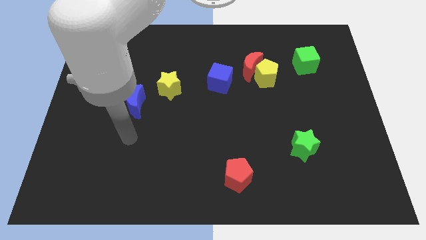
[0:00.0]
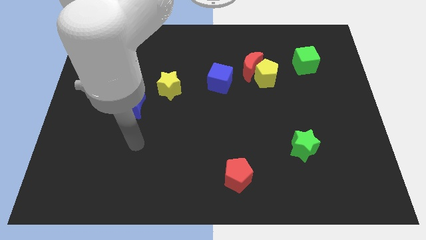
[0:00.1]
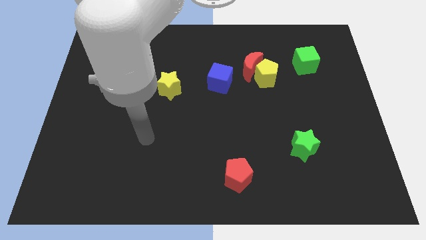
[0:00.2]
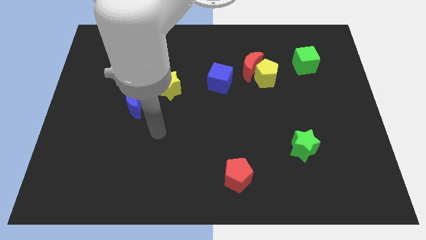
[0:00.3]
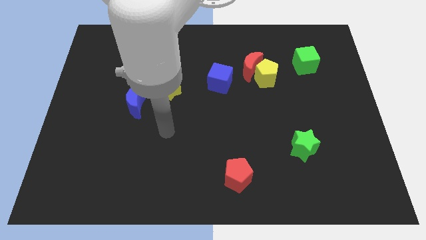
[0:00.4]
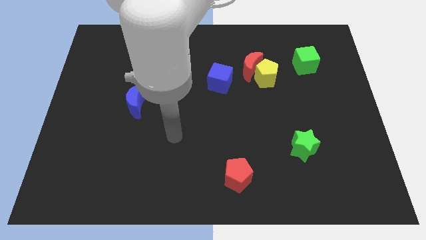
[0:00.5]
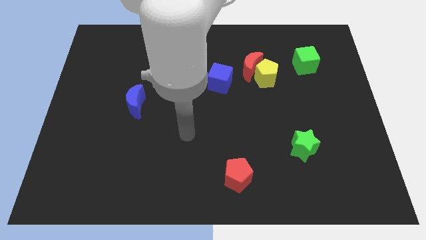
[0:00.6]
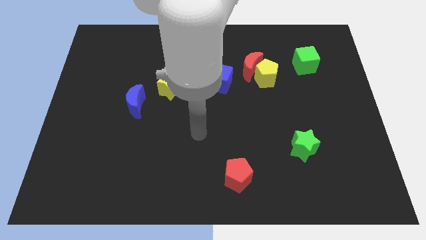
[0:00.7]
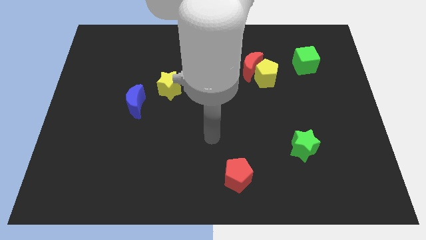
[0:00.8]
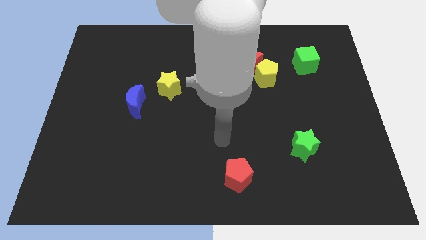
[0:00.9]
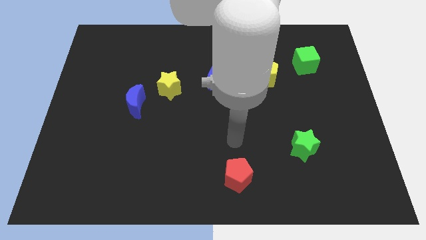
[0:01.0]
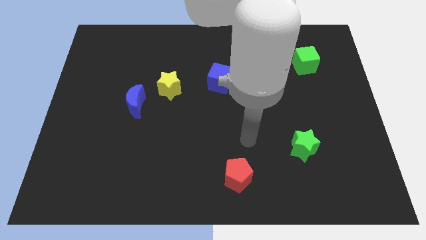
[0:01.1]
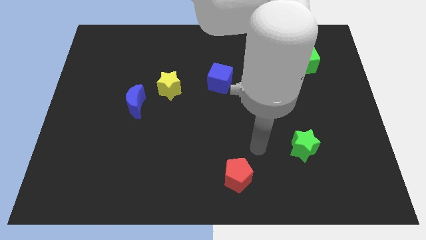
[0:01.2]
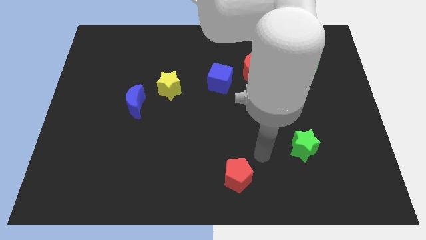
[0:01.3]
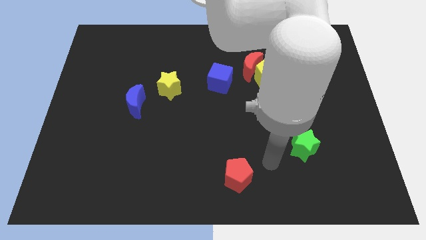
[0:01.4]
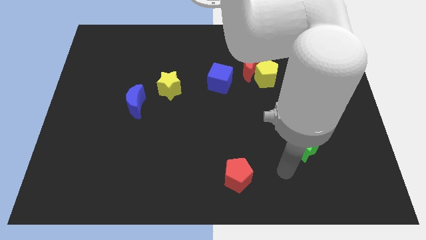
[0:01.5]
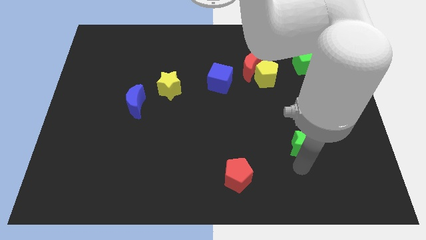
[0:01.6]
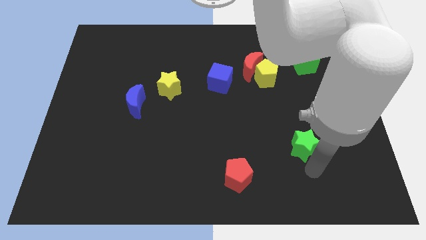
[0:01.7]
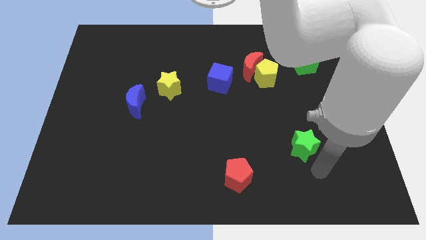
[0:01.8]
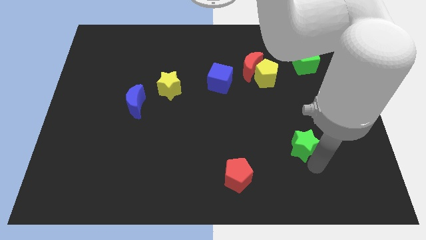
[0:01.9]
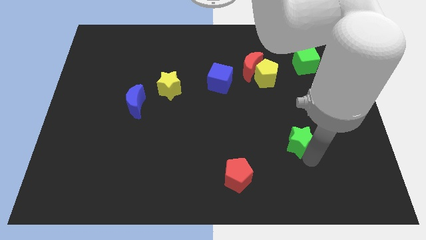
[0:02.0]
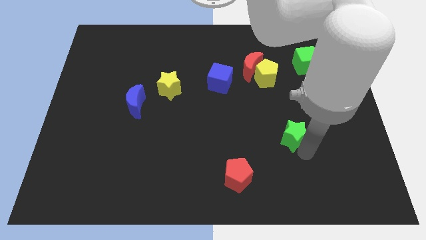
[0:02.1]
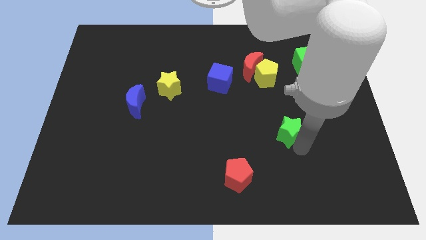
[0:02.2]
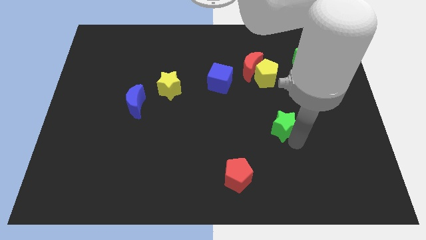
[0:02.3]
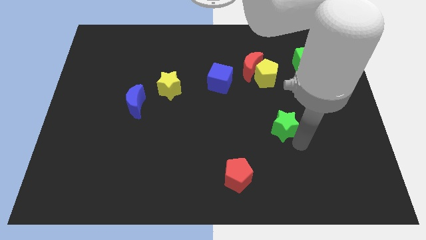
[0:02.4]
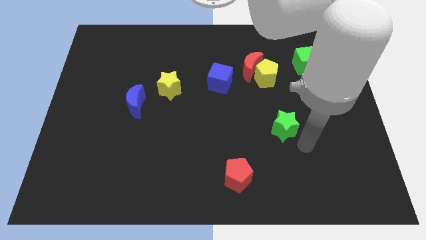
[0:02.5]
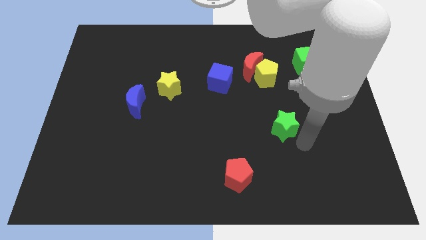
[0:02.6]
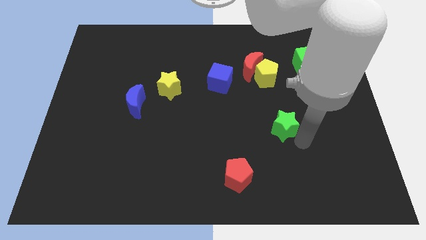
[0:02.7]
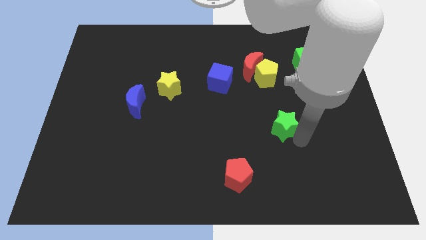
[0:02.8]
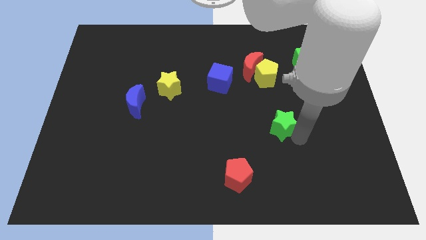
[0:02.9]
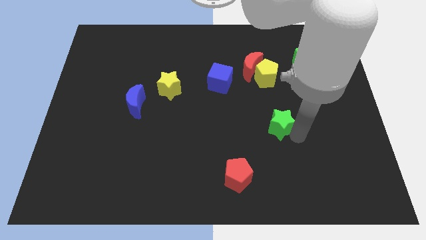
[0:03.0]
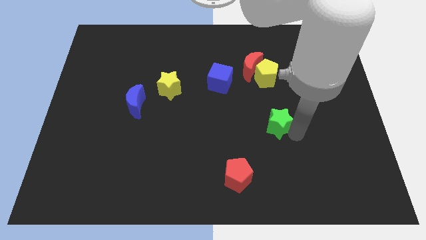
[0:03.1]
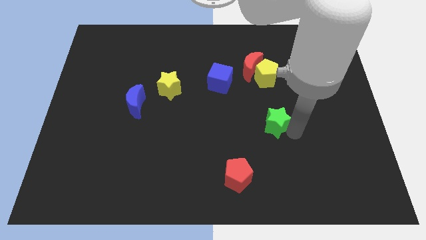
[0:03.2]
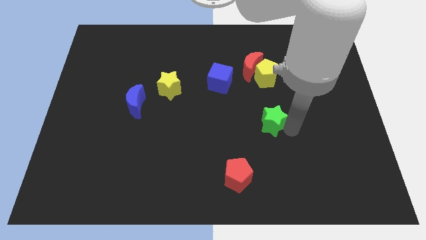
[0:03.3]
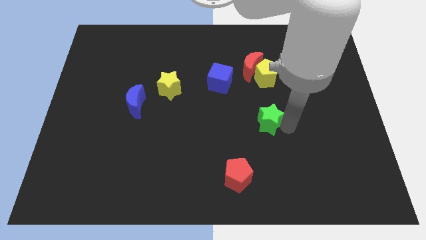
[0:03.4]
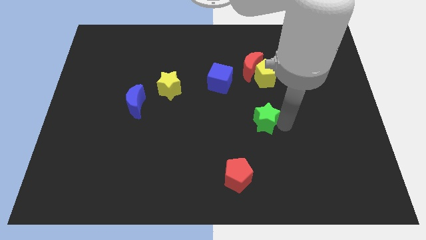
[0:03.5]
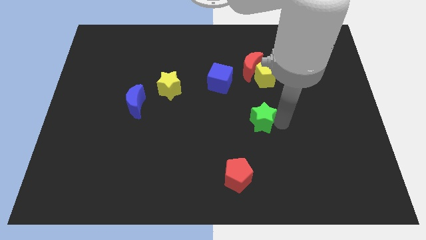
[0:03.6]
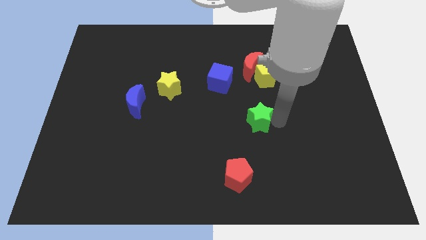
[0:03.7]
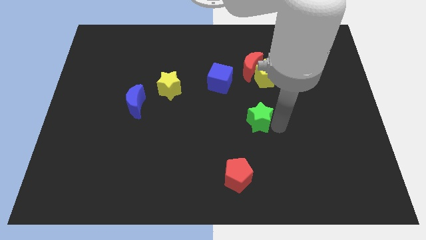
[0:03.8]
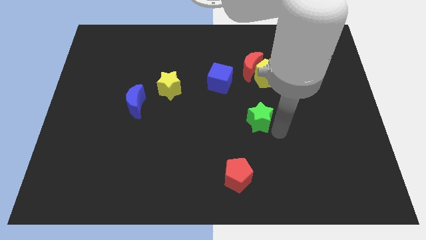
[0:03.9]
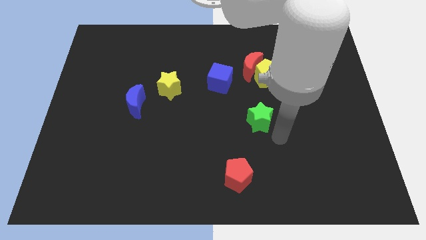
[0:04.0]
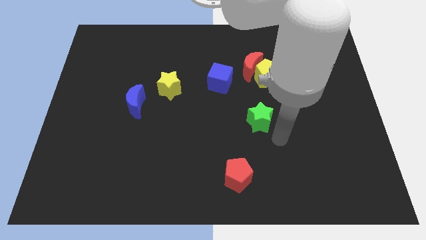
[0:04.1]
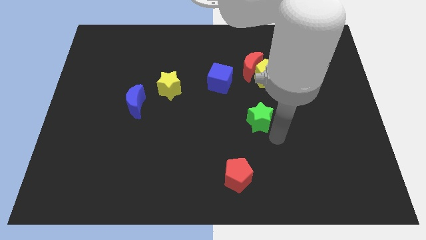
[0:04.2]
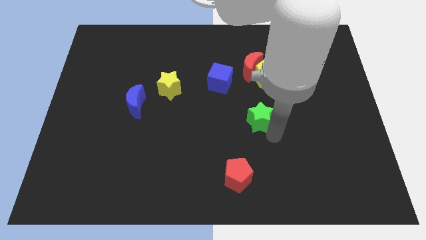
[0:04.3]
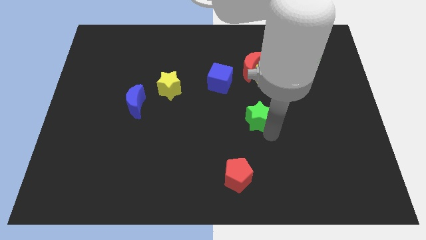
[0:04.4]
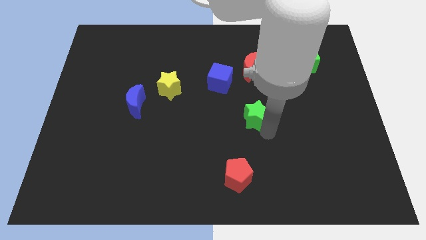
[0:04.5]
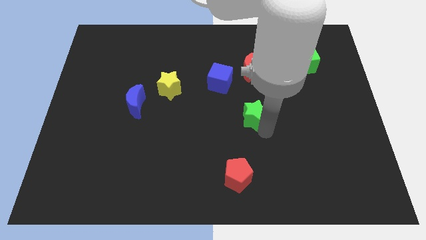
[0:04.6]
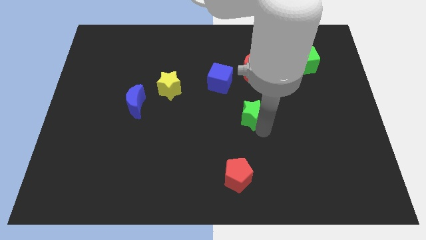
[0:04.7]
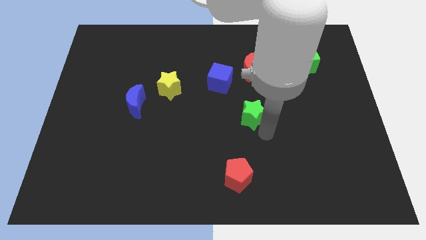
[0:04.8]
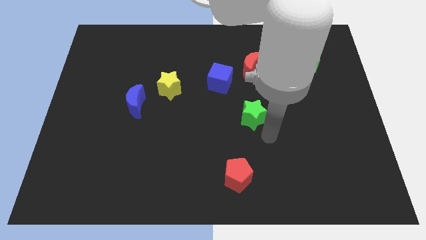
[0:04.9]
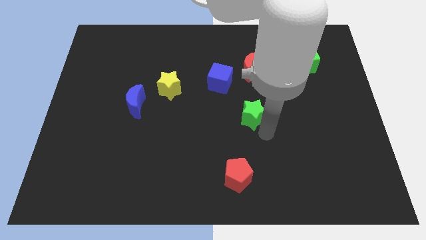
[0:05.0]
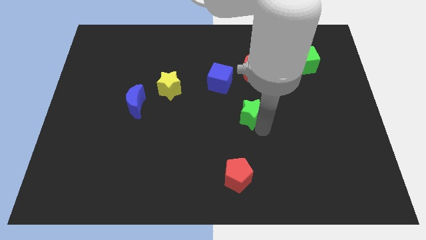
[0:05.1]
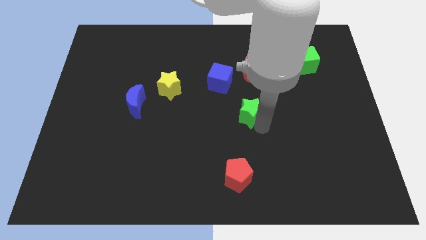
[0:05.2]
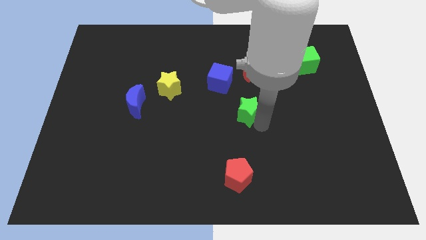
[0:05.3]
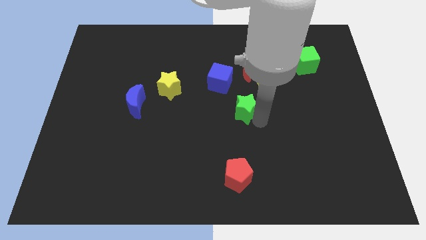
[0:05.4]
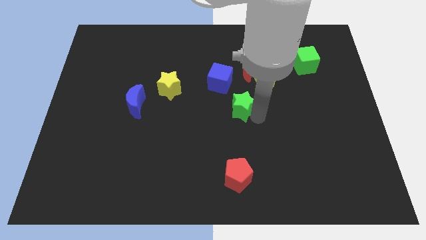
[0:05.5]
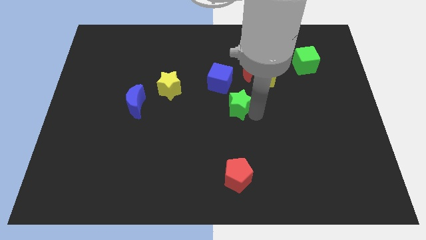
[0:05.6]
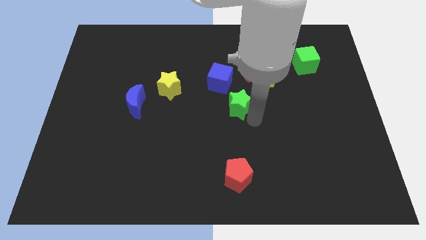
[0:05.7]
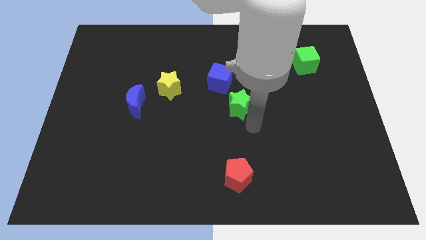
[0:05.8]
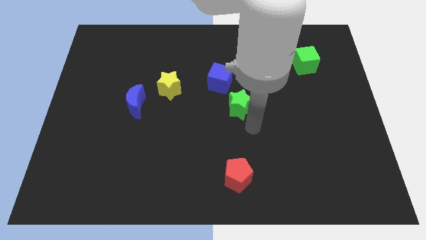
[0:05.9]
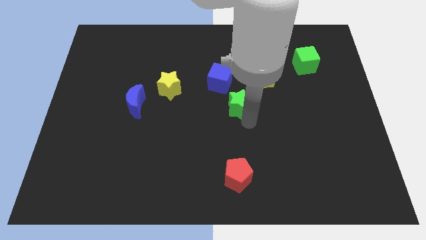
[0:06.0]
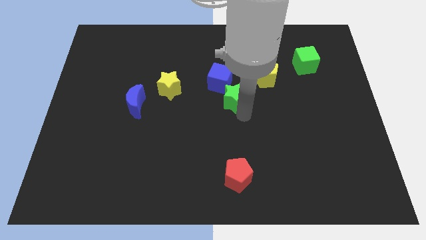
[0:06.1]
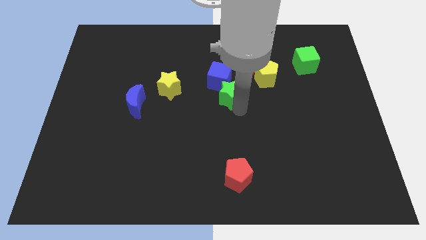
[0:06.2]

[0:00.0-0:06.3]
push the green star to the blue cube

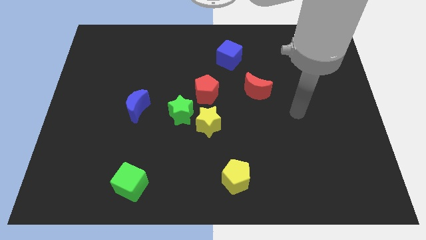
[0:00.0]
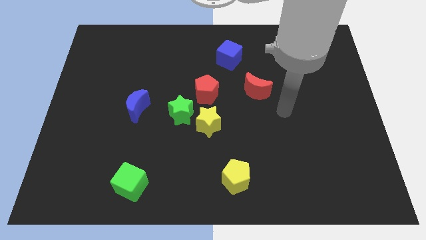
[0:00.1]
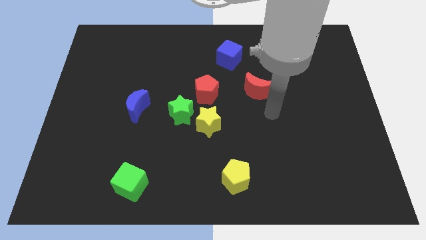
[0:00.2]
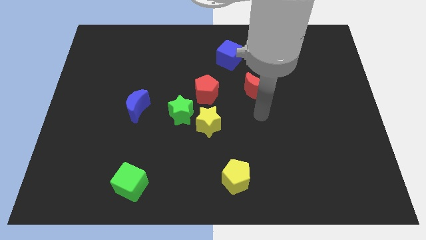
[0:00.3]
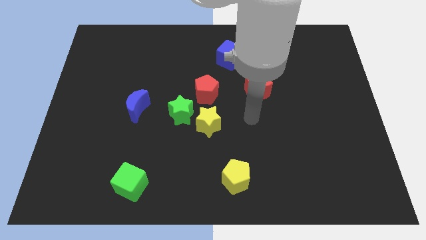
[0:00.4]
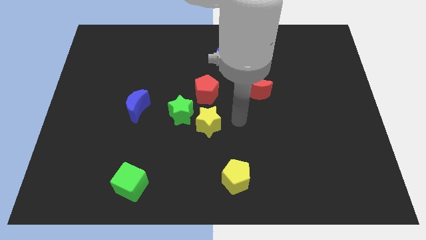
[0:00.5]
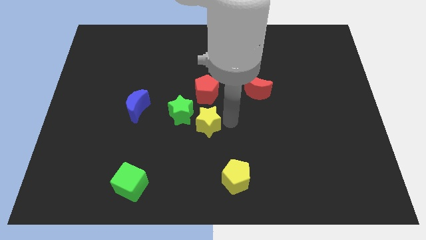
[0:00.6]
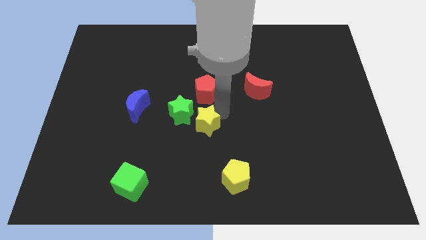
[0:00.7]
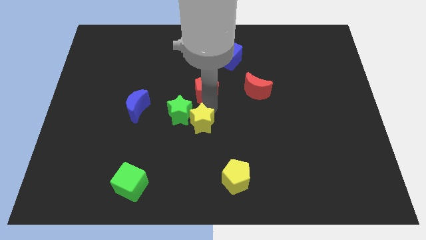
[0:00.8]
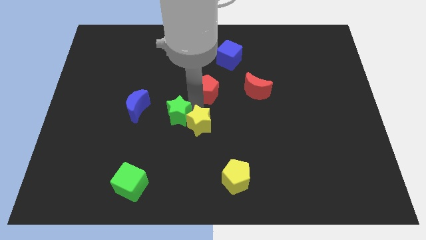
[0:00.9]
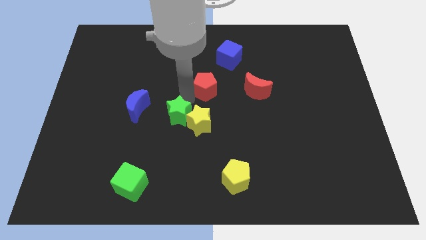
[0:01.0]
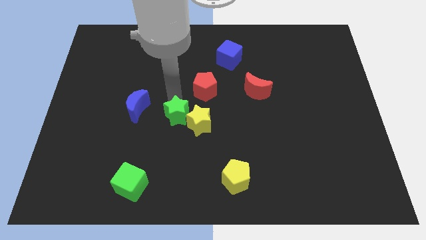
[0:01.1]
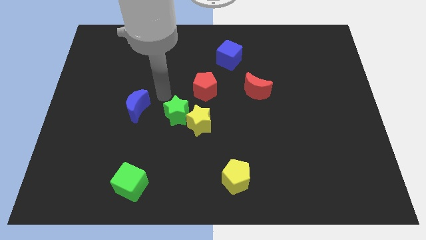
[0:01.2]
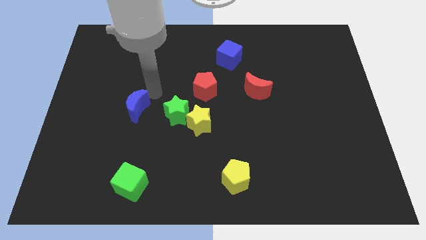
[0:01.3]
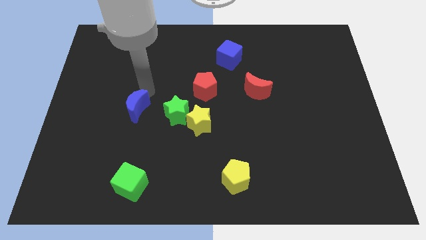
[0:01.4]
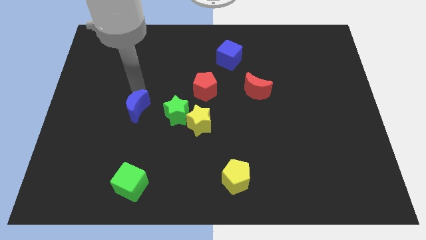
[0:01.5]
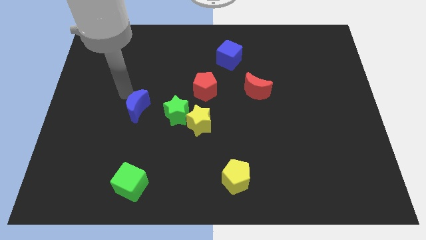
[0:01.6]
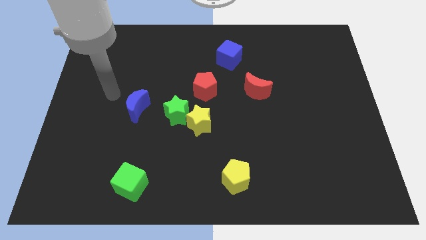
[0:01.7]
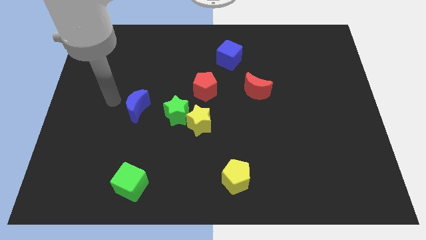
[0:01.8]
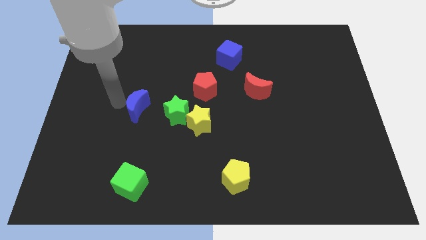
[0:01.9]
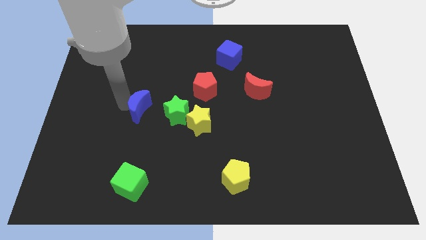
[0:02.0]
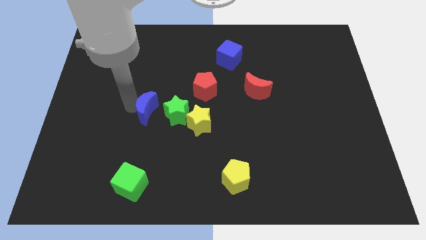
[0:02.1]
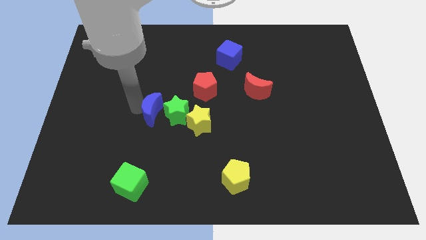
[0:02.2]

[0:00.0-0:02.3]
put the blue moon to the green star
